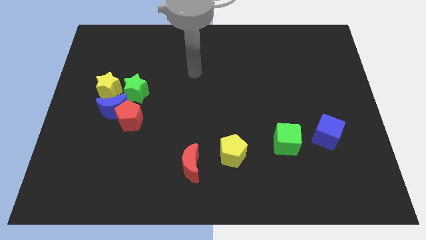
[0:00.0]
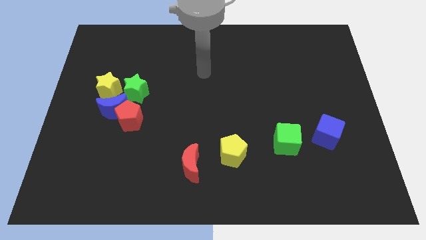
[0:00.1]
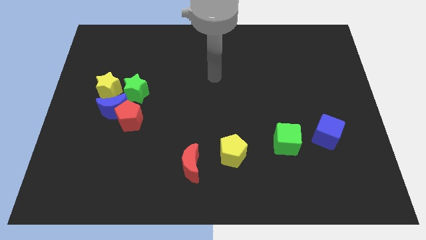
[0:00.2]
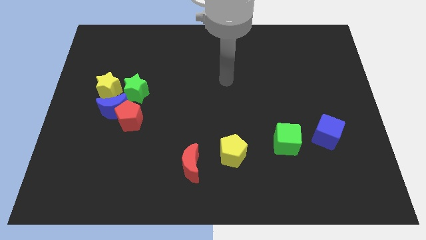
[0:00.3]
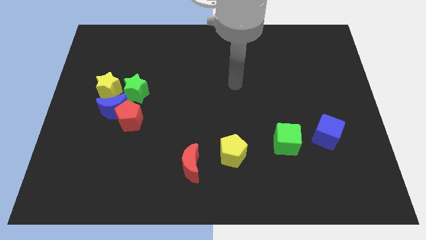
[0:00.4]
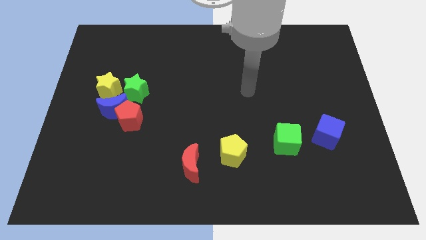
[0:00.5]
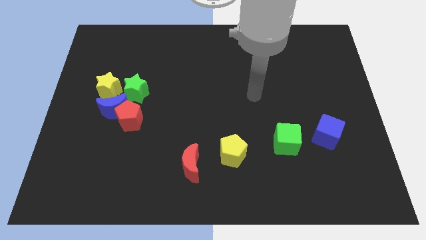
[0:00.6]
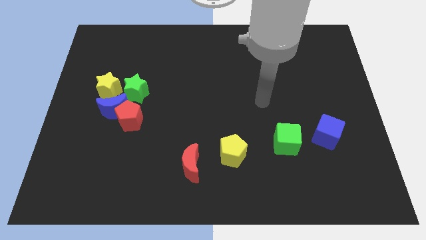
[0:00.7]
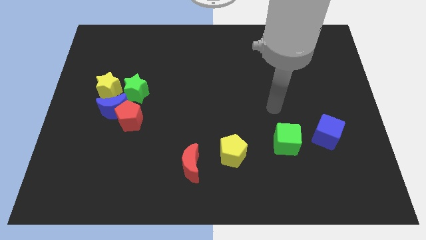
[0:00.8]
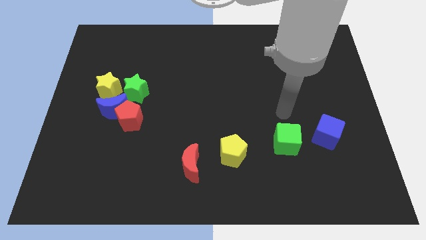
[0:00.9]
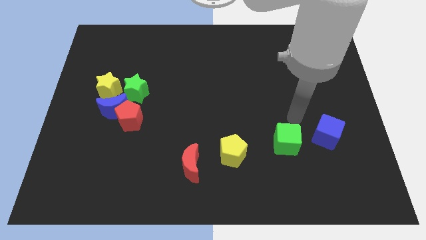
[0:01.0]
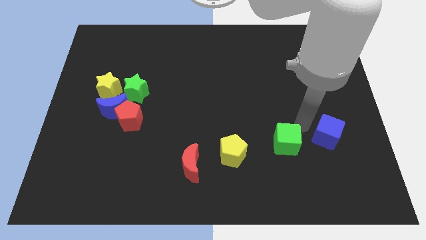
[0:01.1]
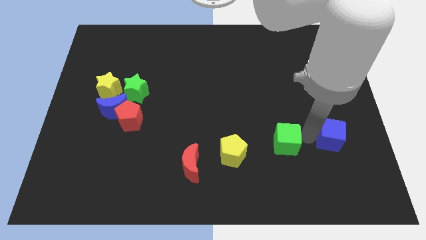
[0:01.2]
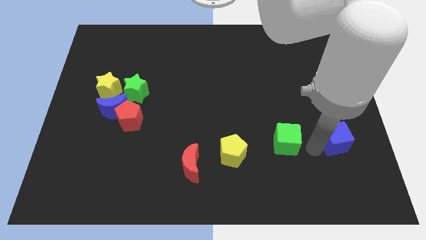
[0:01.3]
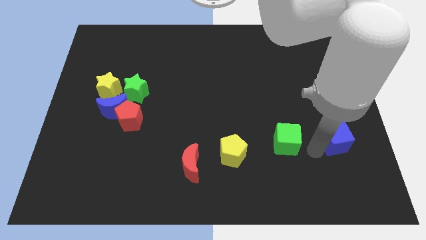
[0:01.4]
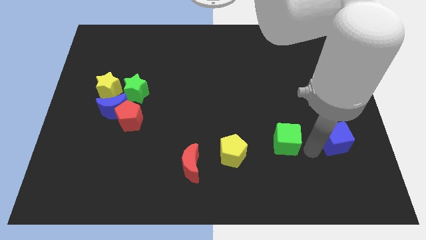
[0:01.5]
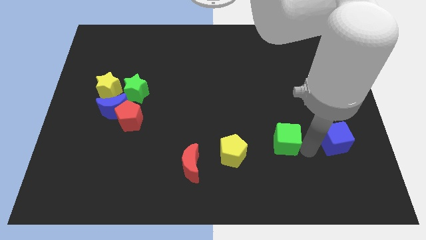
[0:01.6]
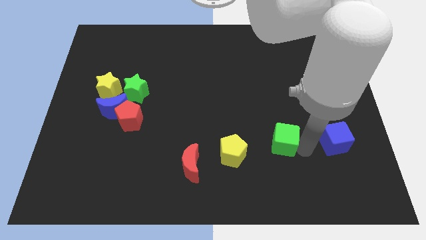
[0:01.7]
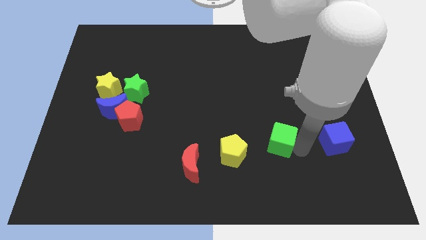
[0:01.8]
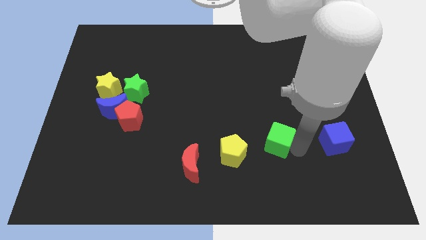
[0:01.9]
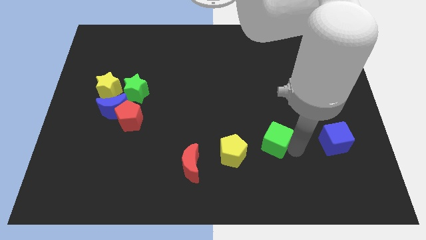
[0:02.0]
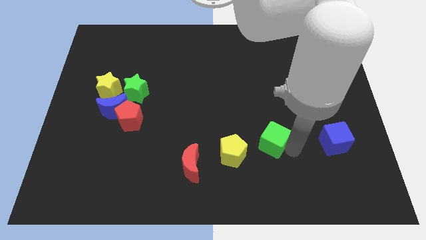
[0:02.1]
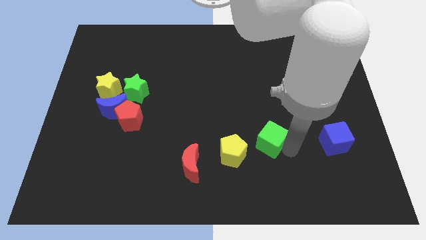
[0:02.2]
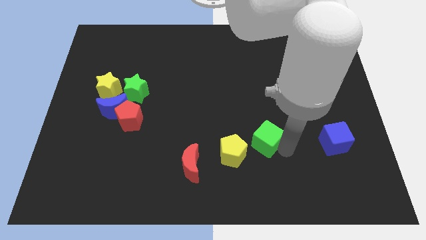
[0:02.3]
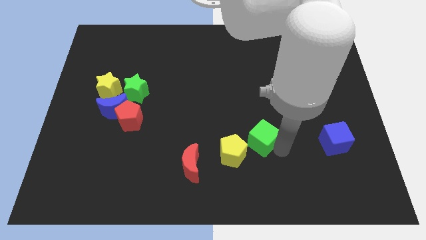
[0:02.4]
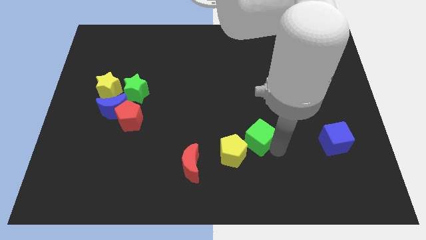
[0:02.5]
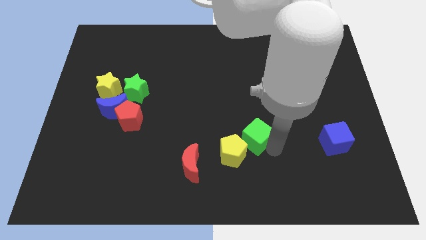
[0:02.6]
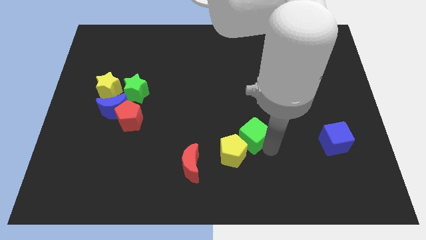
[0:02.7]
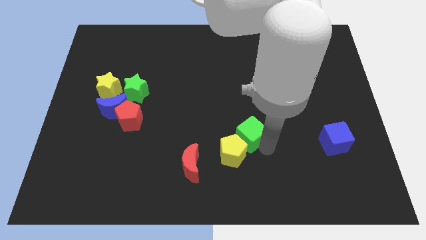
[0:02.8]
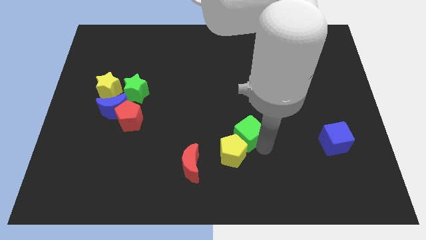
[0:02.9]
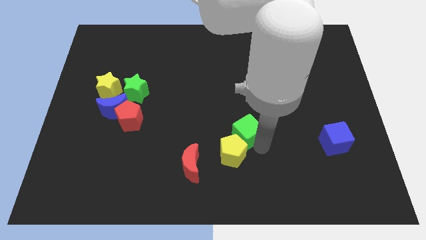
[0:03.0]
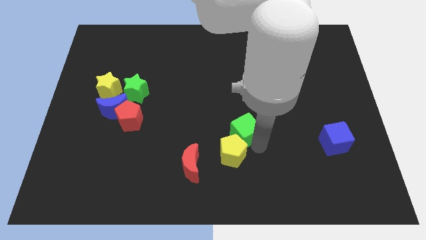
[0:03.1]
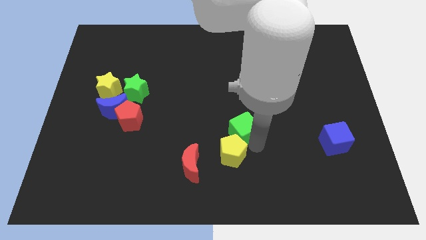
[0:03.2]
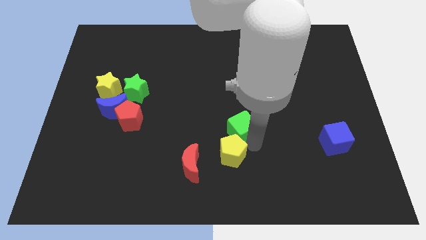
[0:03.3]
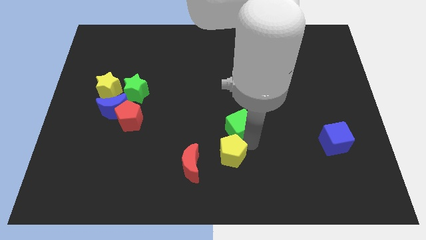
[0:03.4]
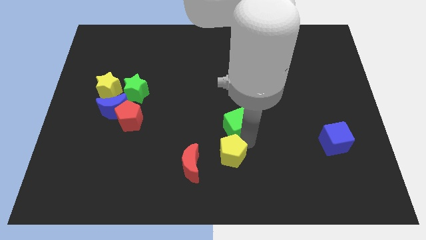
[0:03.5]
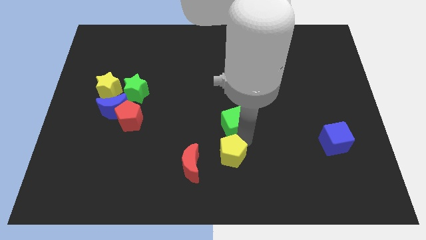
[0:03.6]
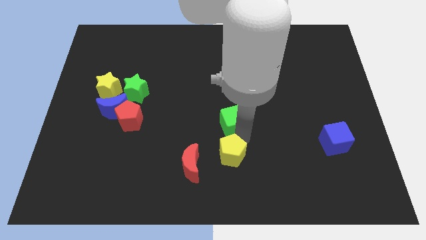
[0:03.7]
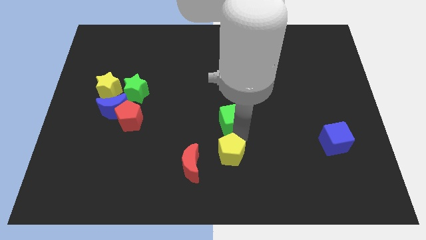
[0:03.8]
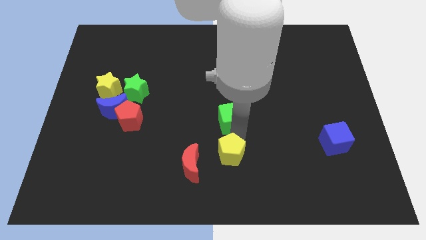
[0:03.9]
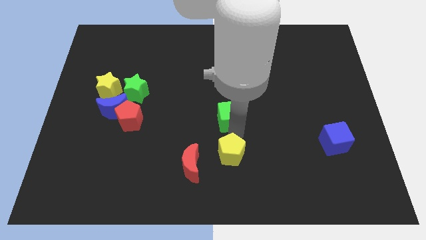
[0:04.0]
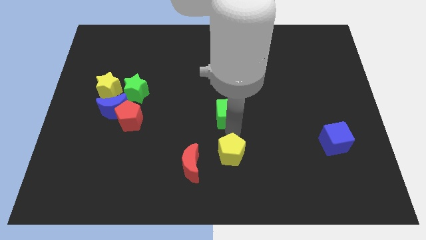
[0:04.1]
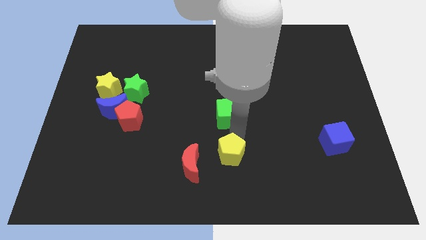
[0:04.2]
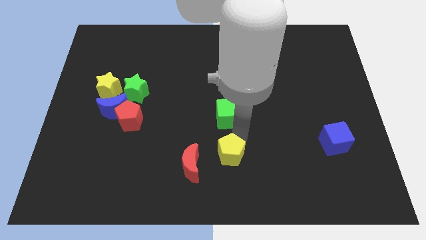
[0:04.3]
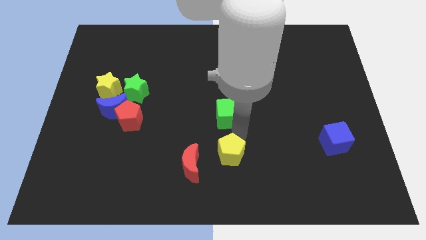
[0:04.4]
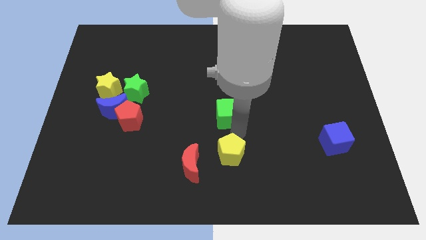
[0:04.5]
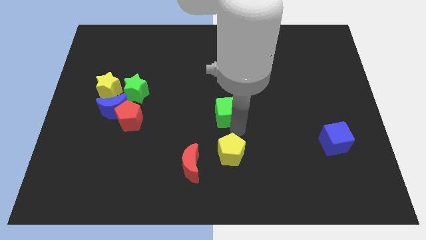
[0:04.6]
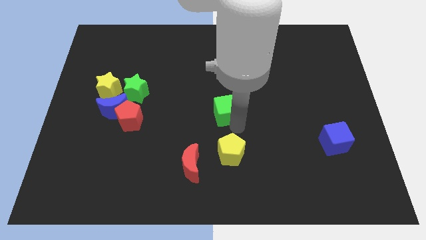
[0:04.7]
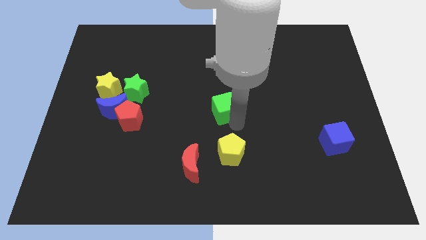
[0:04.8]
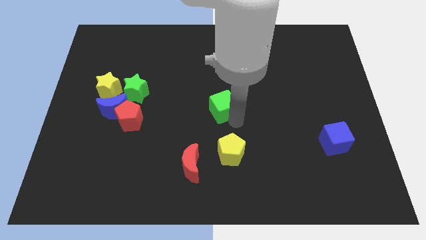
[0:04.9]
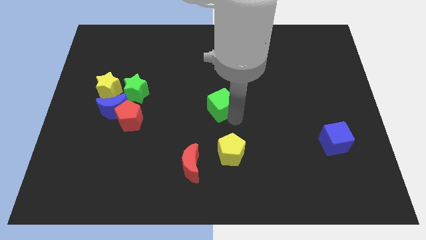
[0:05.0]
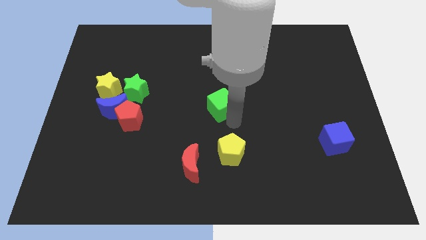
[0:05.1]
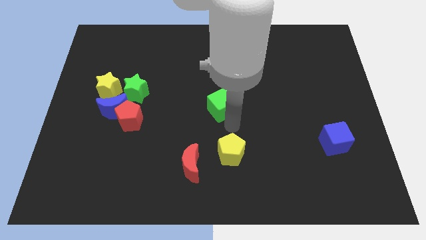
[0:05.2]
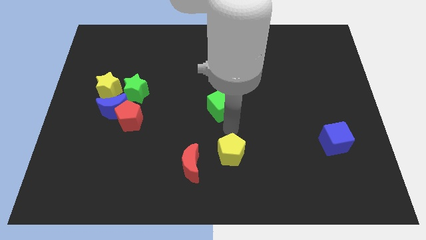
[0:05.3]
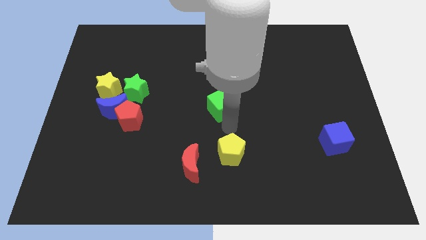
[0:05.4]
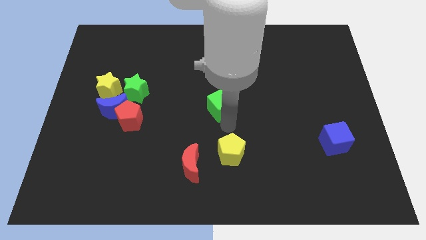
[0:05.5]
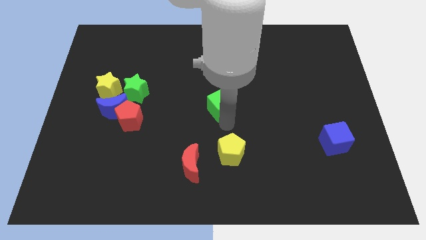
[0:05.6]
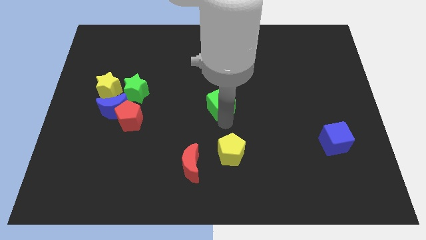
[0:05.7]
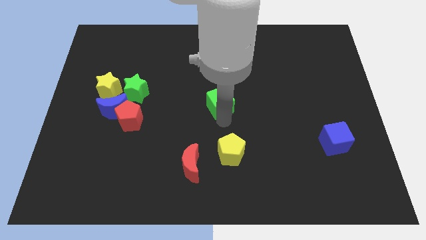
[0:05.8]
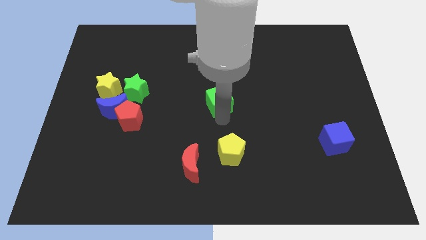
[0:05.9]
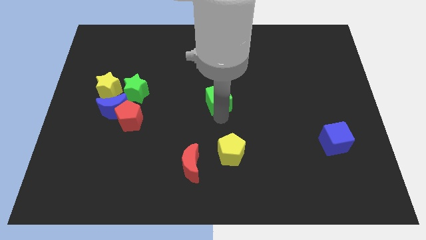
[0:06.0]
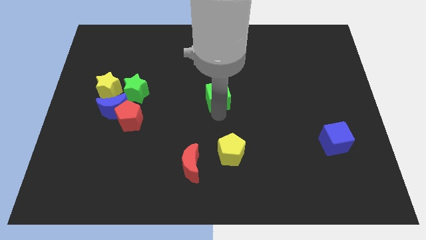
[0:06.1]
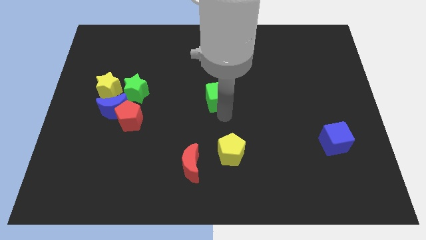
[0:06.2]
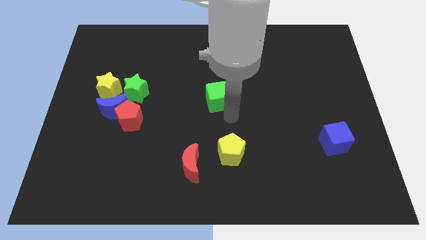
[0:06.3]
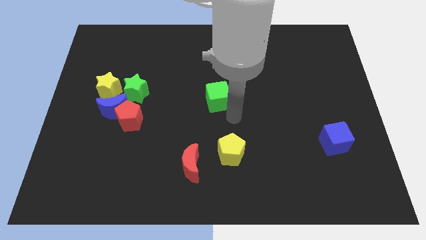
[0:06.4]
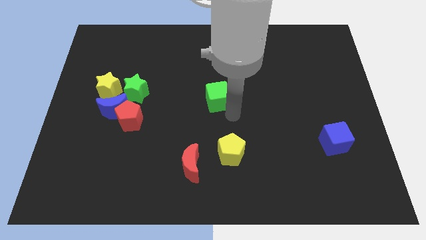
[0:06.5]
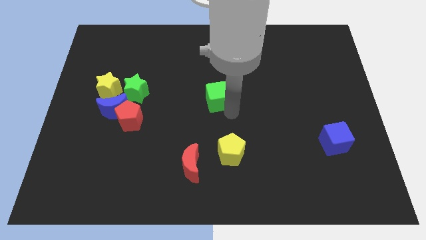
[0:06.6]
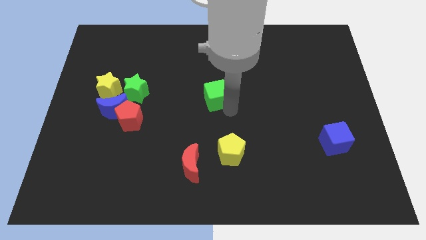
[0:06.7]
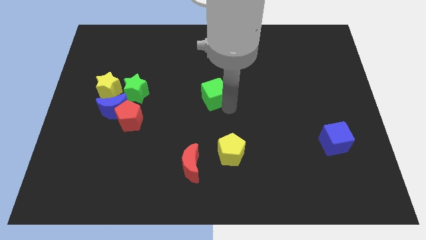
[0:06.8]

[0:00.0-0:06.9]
slide the green cube up and to the left diagonally

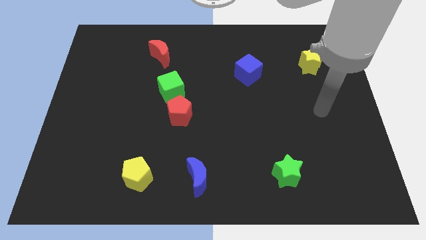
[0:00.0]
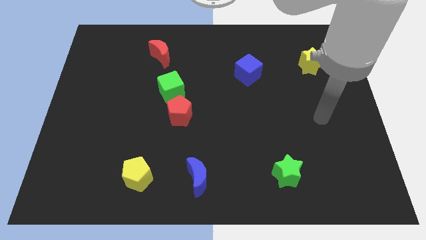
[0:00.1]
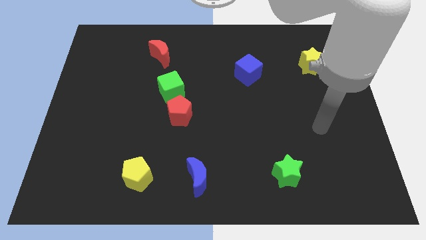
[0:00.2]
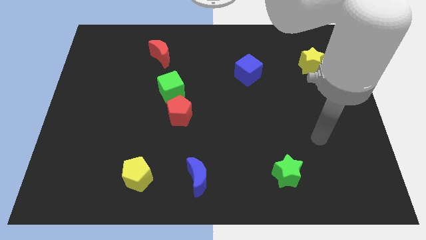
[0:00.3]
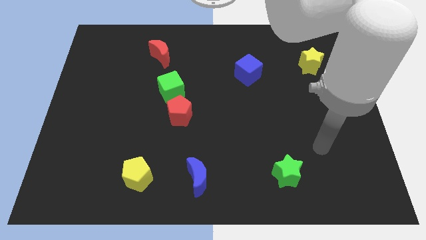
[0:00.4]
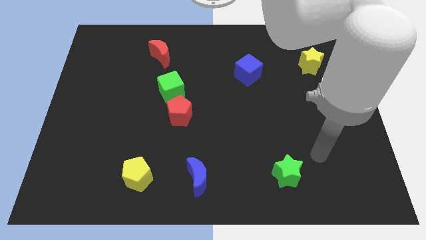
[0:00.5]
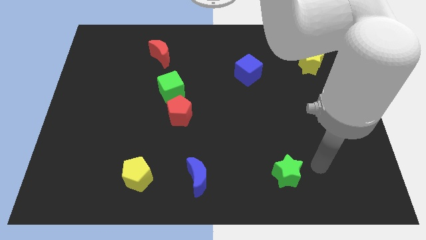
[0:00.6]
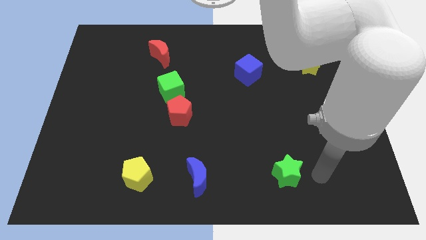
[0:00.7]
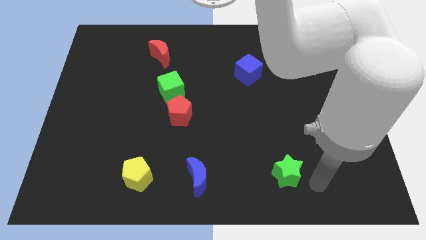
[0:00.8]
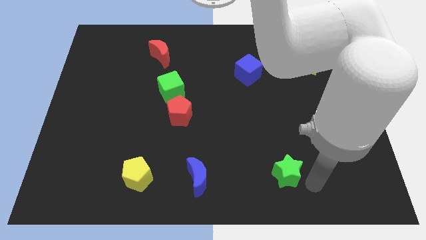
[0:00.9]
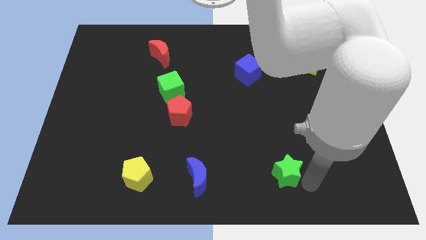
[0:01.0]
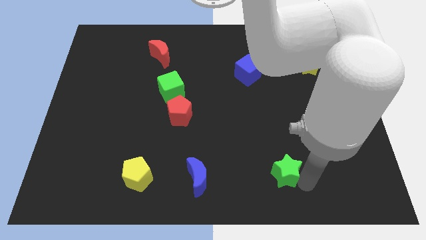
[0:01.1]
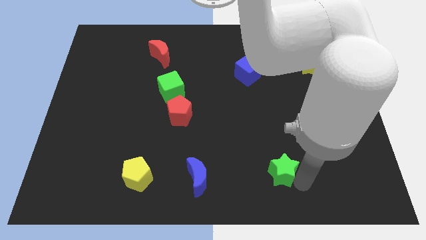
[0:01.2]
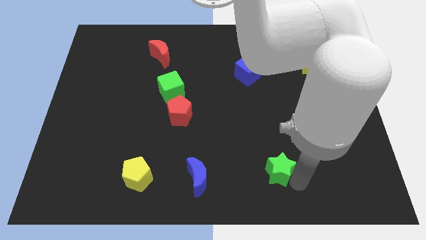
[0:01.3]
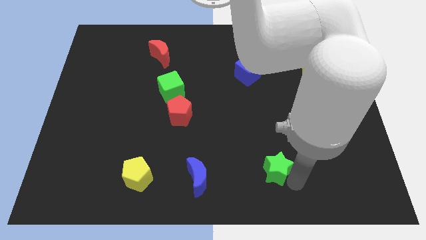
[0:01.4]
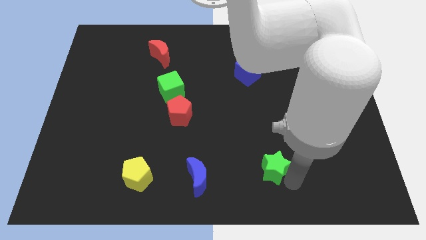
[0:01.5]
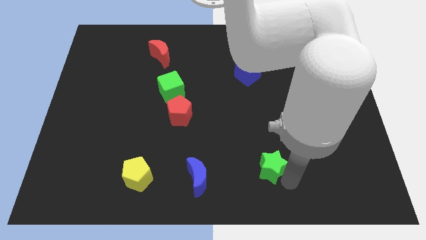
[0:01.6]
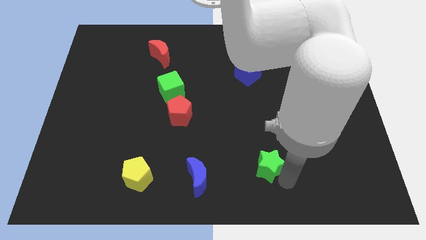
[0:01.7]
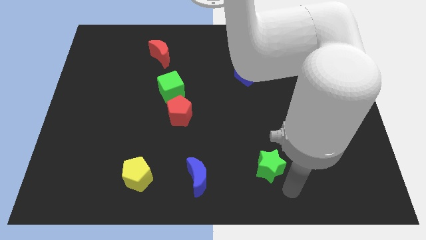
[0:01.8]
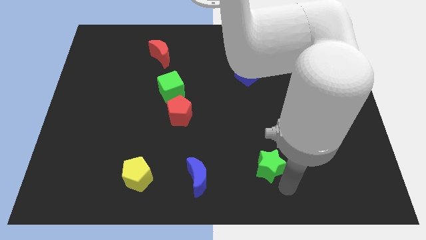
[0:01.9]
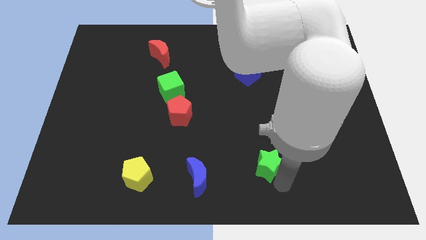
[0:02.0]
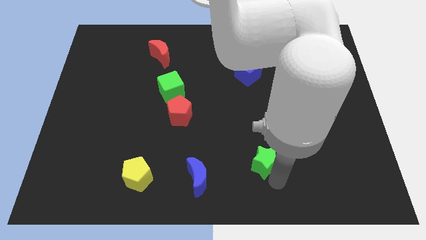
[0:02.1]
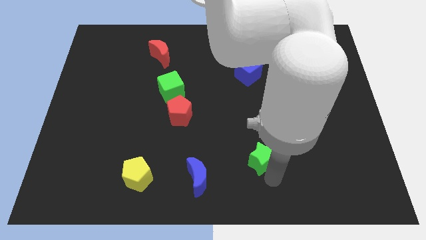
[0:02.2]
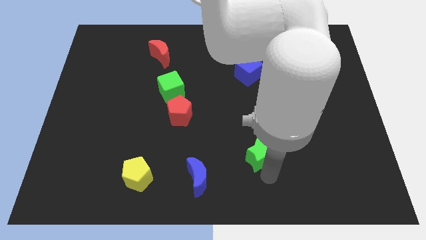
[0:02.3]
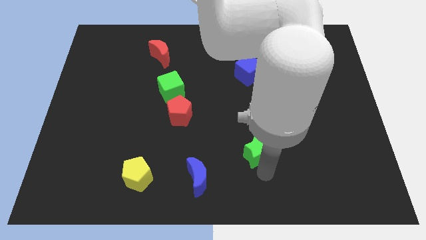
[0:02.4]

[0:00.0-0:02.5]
move the green star upwards and to the left diagonally a little bit
